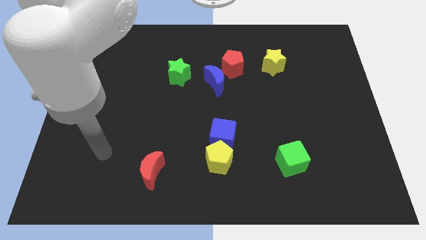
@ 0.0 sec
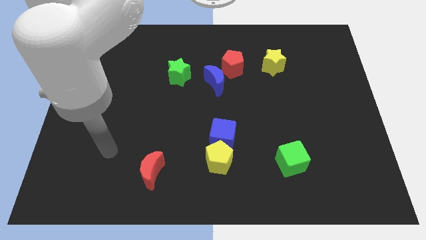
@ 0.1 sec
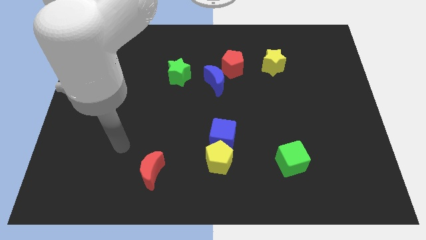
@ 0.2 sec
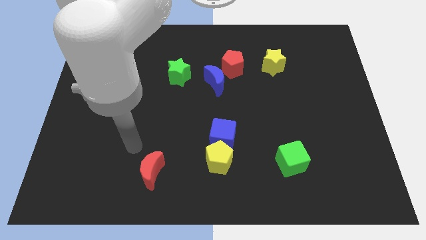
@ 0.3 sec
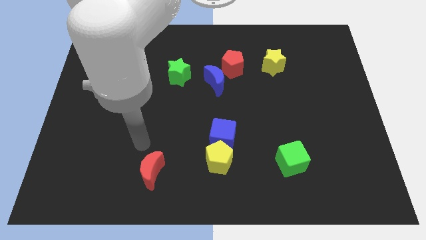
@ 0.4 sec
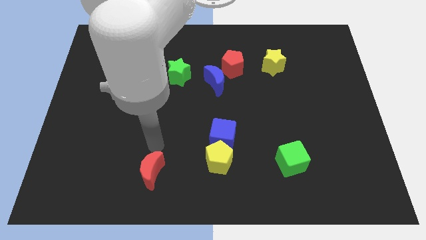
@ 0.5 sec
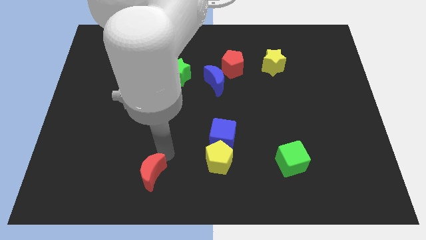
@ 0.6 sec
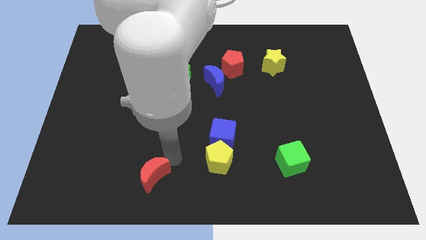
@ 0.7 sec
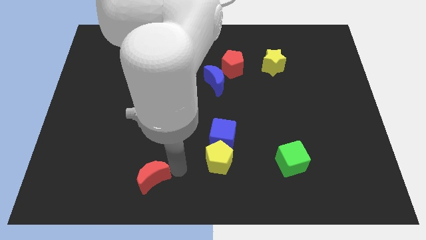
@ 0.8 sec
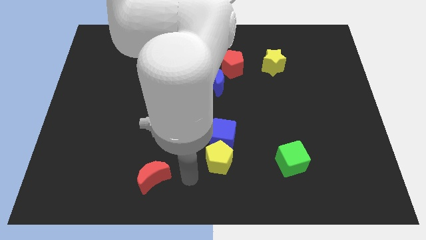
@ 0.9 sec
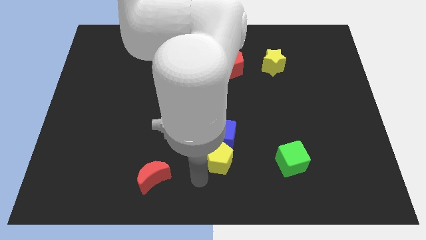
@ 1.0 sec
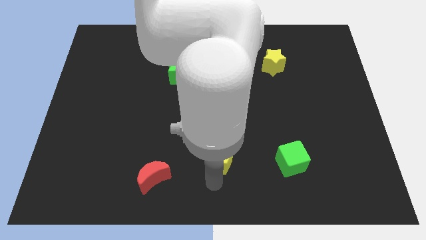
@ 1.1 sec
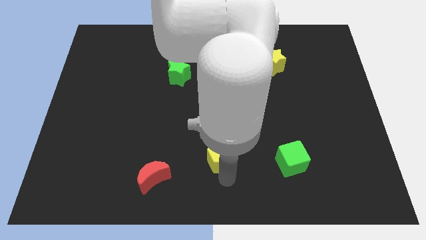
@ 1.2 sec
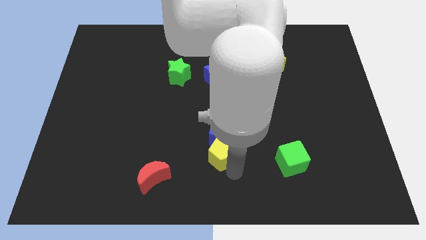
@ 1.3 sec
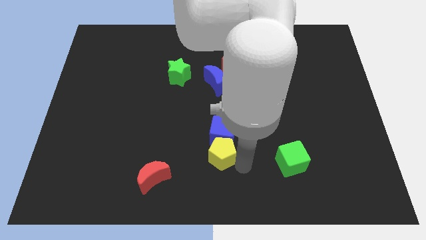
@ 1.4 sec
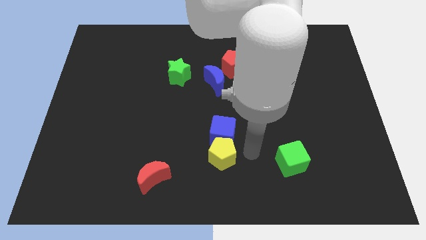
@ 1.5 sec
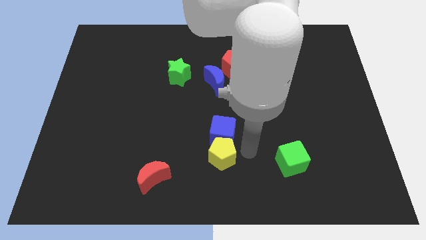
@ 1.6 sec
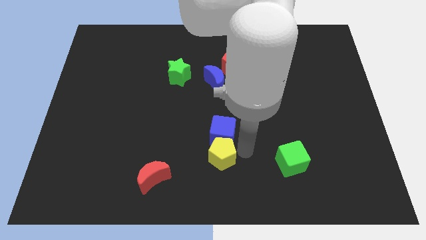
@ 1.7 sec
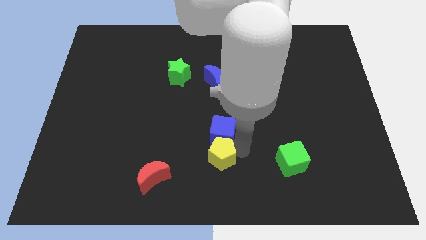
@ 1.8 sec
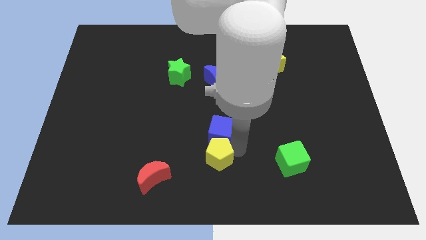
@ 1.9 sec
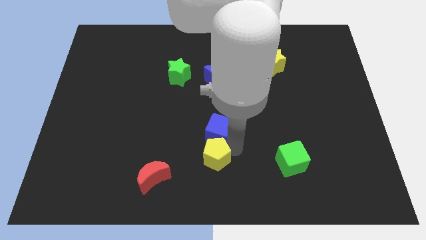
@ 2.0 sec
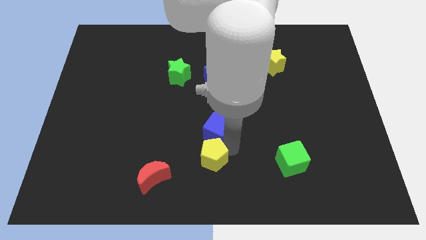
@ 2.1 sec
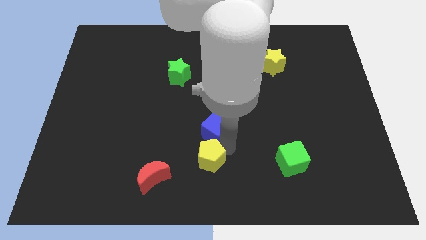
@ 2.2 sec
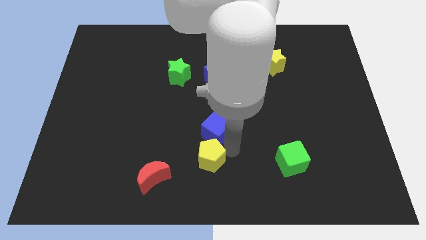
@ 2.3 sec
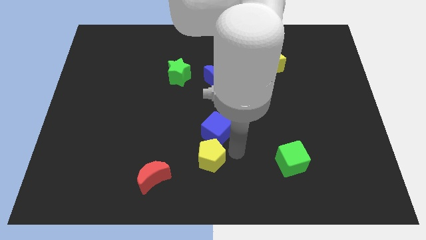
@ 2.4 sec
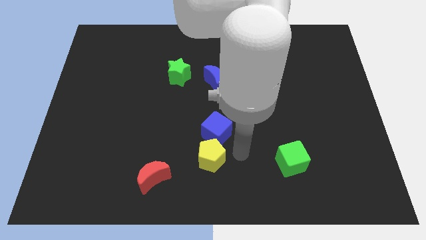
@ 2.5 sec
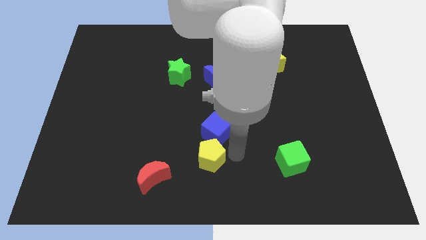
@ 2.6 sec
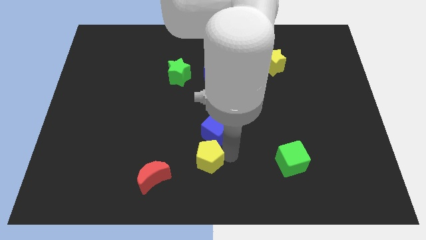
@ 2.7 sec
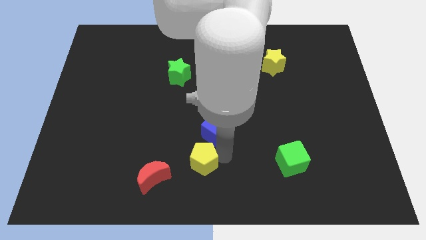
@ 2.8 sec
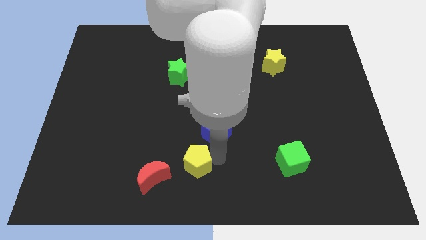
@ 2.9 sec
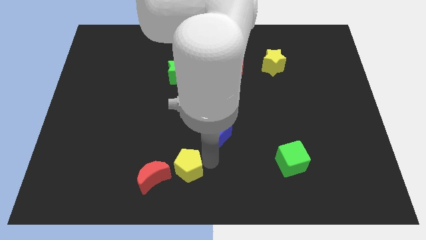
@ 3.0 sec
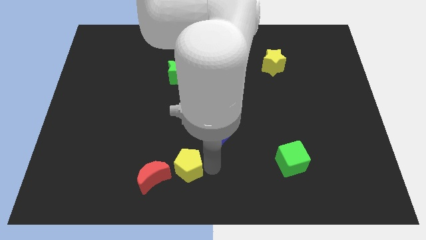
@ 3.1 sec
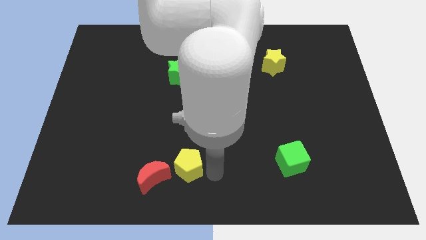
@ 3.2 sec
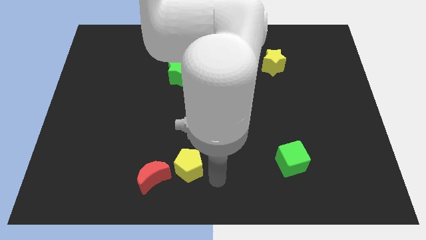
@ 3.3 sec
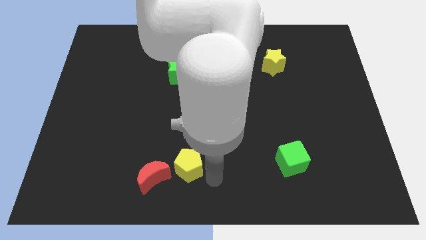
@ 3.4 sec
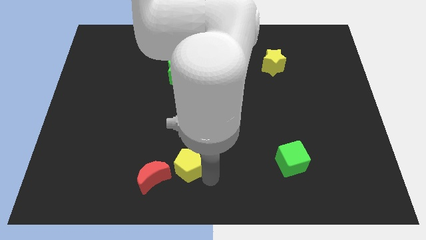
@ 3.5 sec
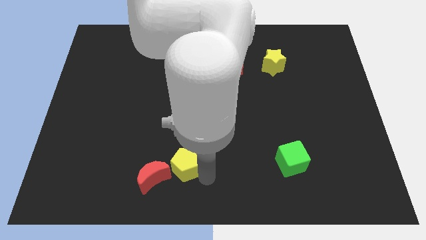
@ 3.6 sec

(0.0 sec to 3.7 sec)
slightly push the yellow pentagon to the left

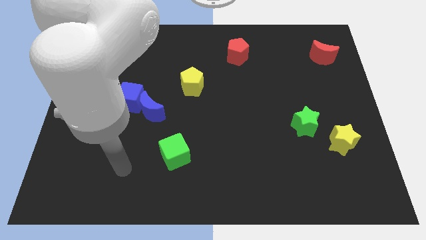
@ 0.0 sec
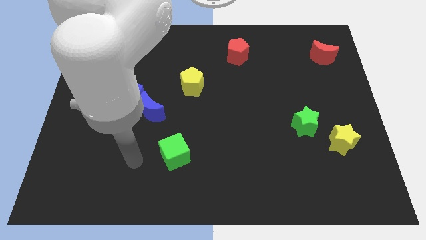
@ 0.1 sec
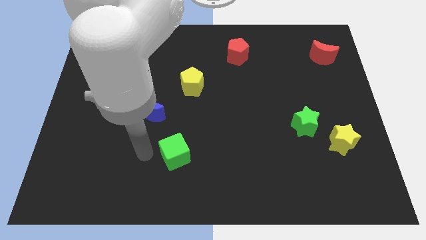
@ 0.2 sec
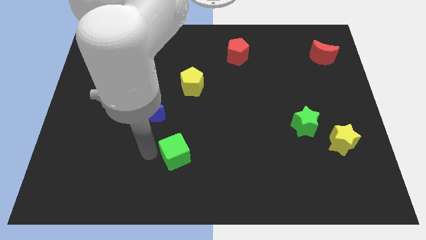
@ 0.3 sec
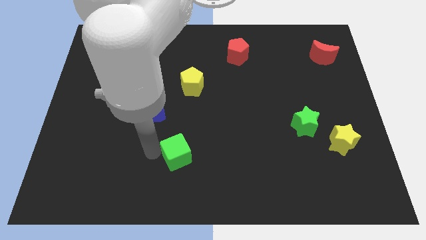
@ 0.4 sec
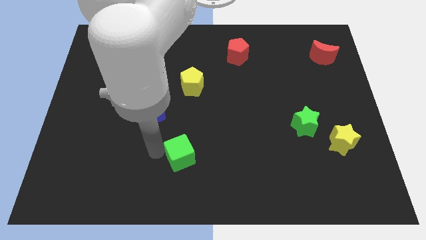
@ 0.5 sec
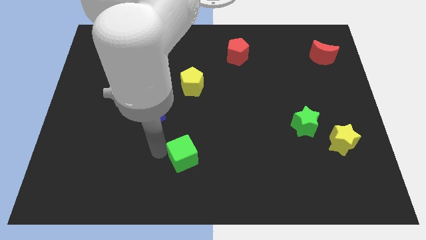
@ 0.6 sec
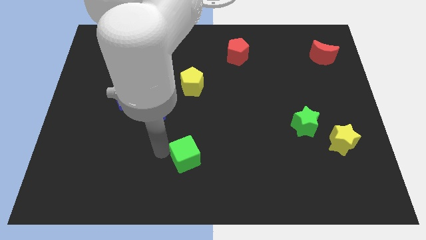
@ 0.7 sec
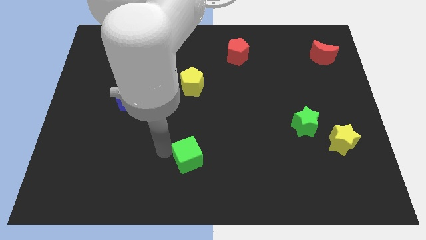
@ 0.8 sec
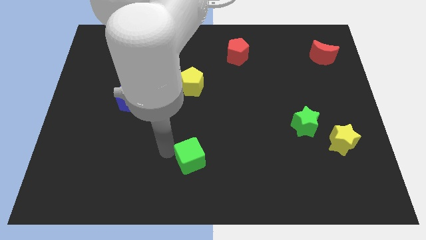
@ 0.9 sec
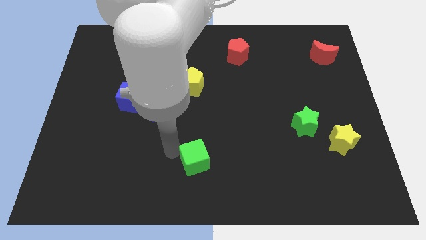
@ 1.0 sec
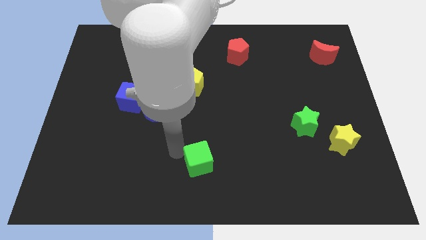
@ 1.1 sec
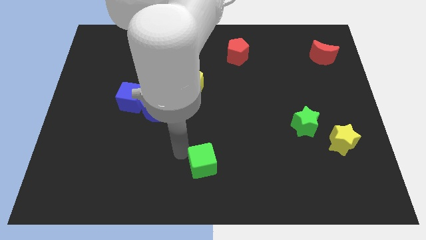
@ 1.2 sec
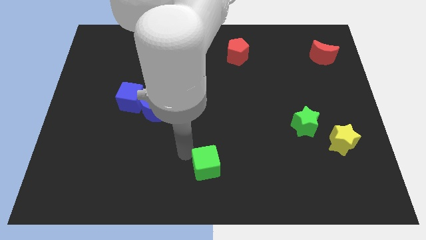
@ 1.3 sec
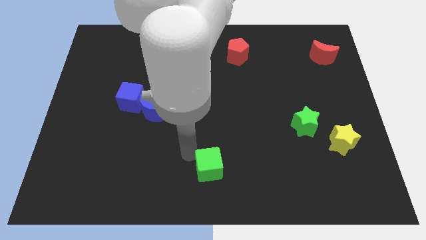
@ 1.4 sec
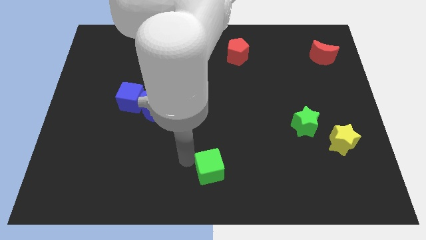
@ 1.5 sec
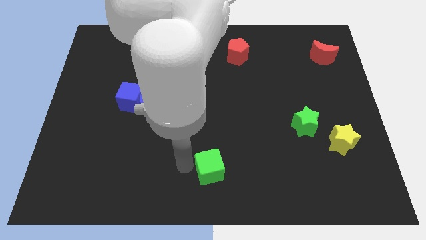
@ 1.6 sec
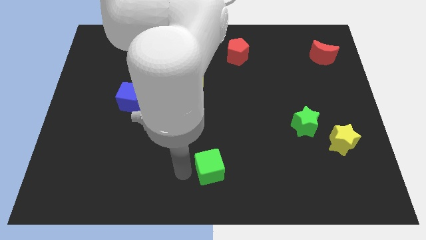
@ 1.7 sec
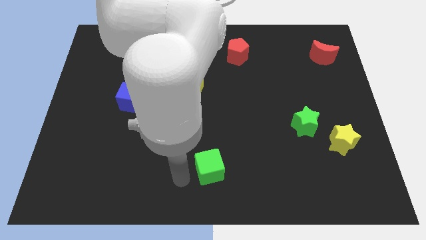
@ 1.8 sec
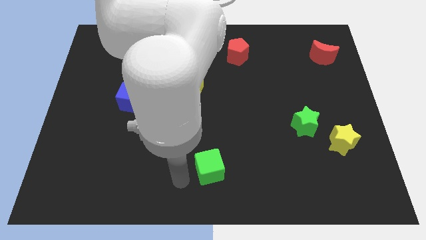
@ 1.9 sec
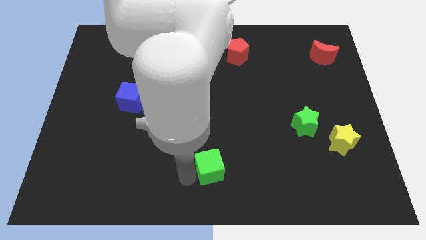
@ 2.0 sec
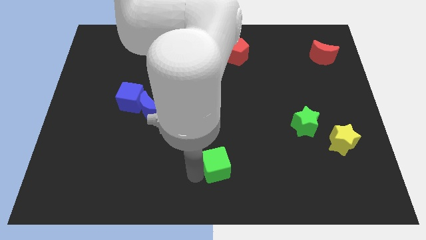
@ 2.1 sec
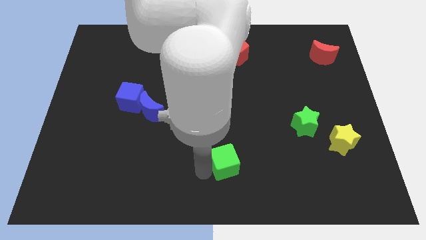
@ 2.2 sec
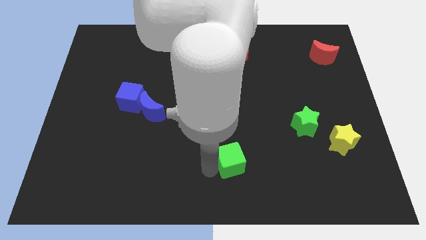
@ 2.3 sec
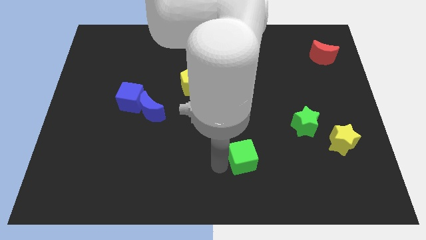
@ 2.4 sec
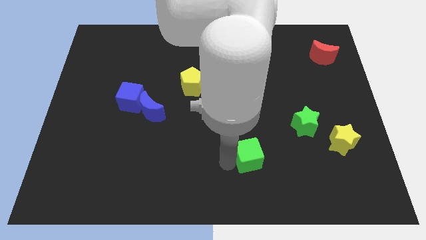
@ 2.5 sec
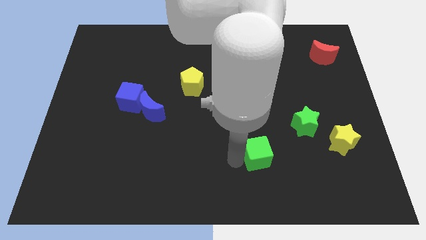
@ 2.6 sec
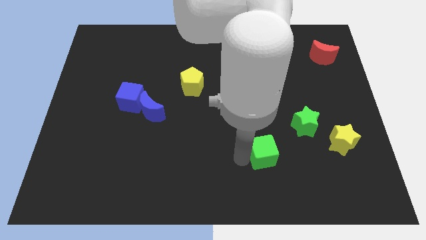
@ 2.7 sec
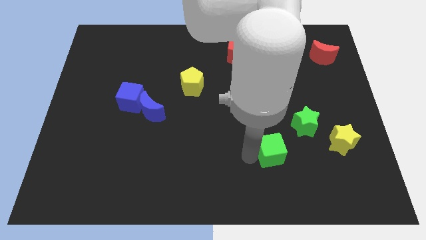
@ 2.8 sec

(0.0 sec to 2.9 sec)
push the green cube right

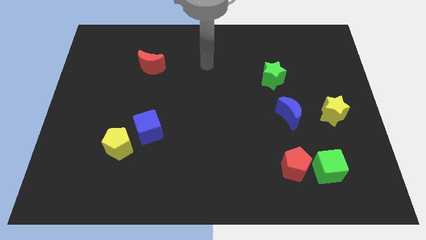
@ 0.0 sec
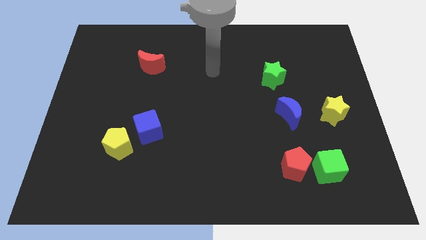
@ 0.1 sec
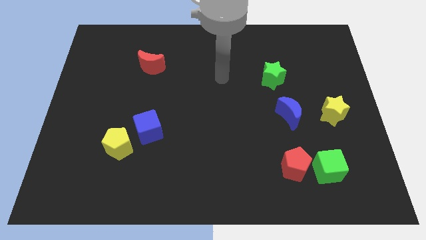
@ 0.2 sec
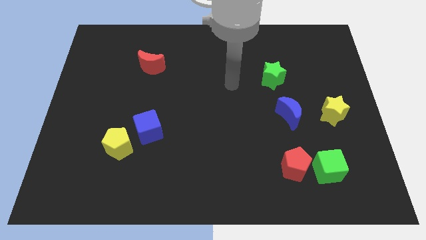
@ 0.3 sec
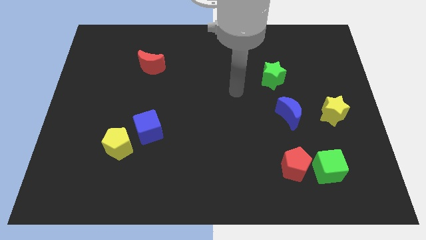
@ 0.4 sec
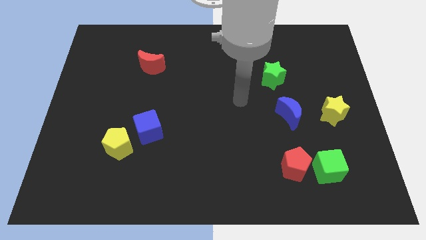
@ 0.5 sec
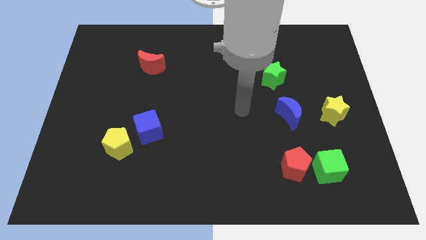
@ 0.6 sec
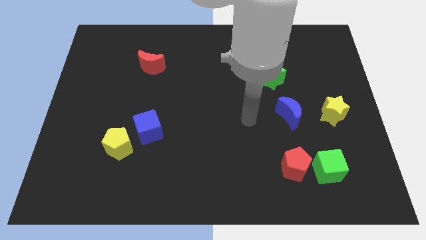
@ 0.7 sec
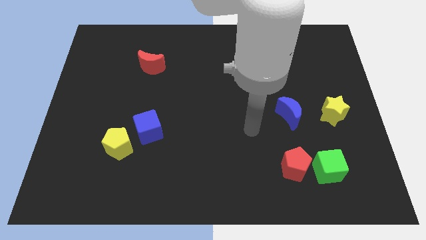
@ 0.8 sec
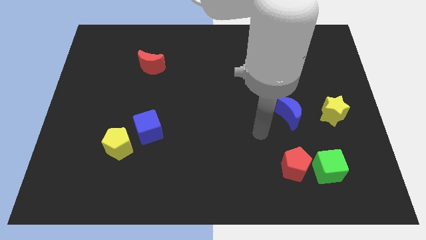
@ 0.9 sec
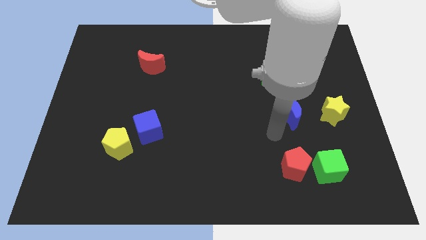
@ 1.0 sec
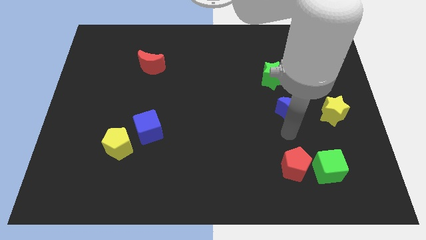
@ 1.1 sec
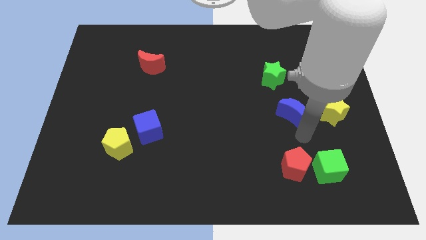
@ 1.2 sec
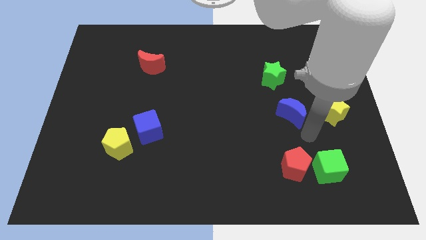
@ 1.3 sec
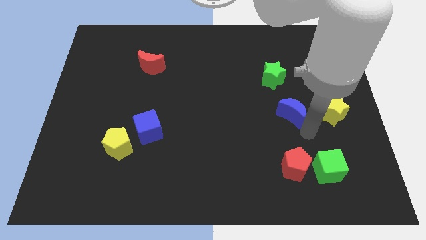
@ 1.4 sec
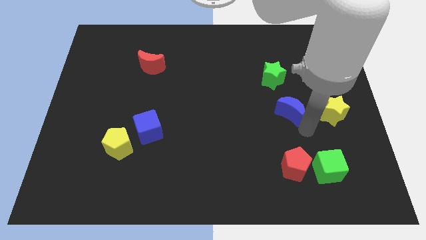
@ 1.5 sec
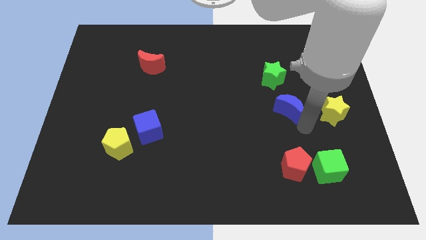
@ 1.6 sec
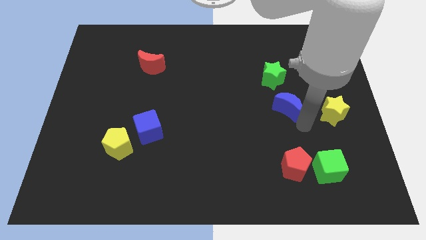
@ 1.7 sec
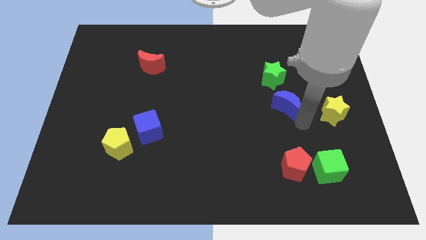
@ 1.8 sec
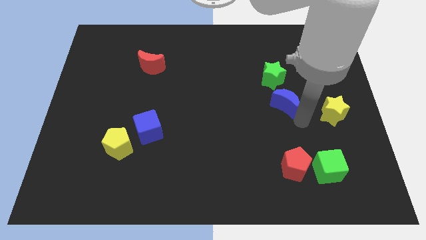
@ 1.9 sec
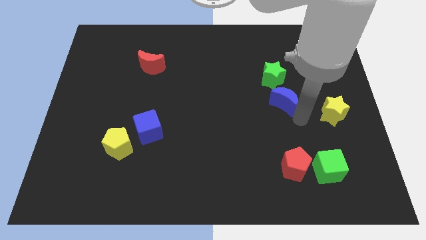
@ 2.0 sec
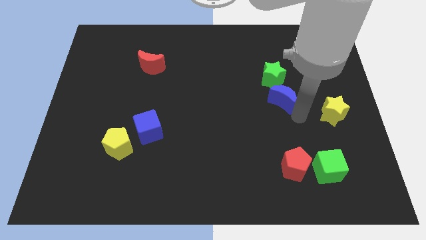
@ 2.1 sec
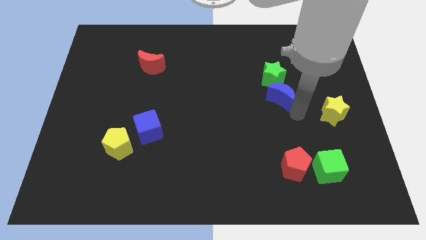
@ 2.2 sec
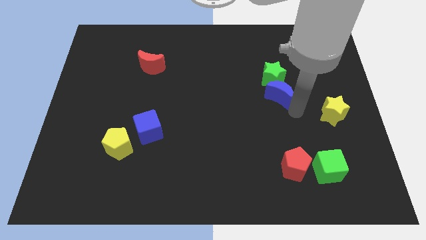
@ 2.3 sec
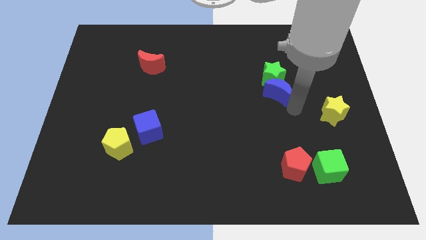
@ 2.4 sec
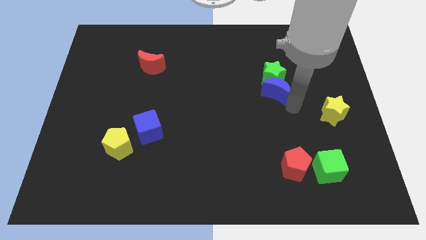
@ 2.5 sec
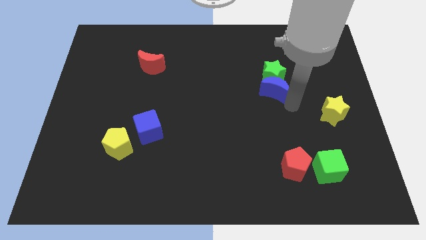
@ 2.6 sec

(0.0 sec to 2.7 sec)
move the blue moon up and to the left diagonally a little
